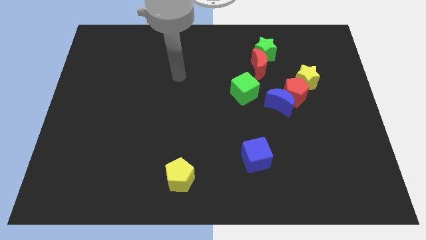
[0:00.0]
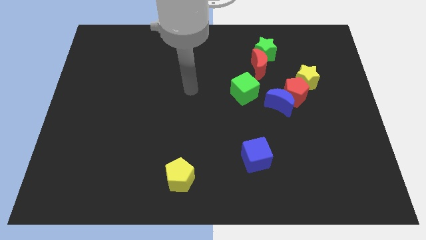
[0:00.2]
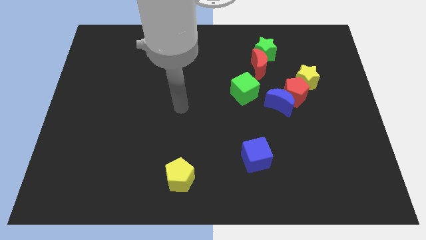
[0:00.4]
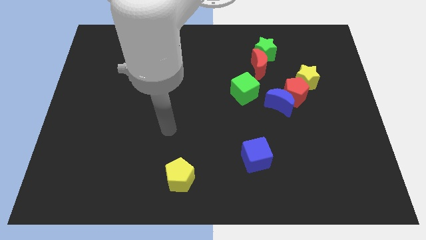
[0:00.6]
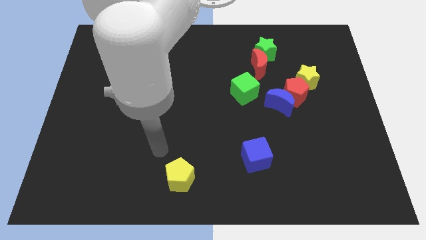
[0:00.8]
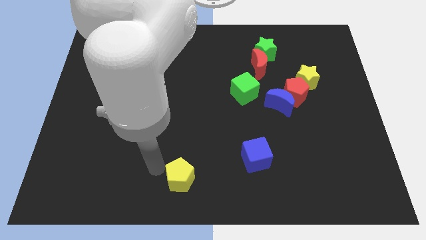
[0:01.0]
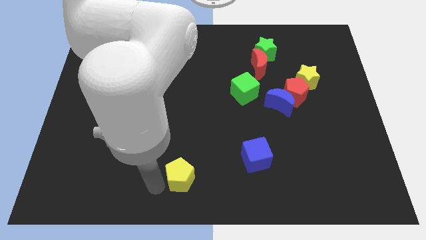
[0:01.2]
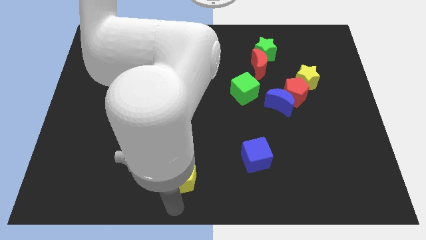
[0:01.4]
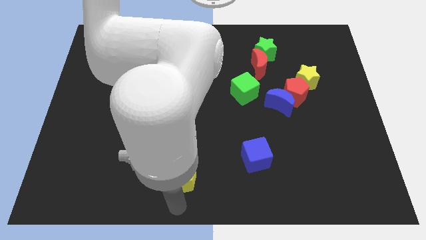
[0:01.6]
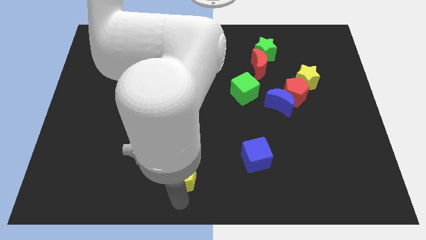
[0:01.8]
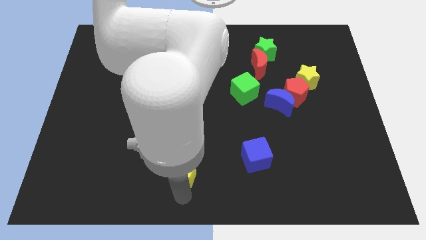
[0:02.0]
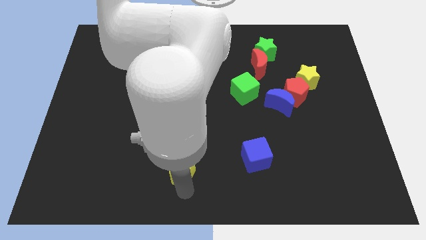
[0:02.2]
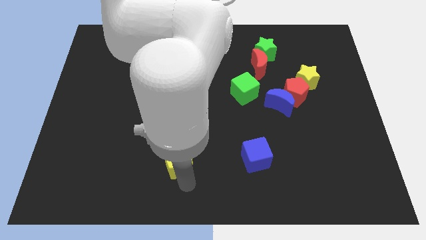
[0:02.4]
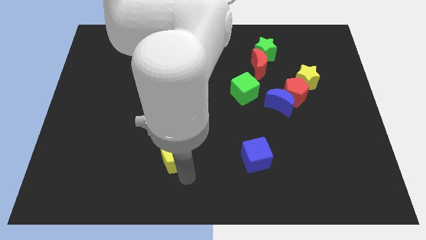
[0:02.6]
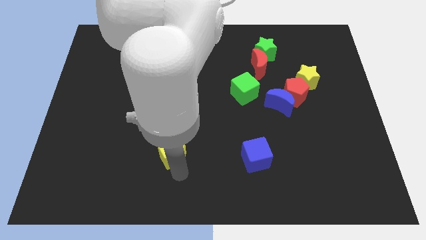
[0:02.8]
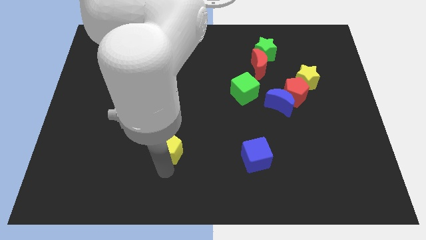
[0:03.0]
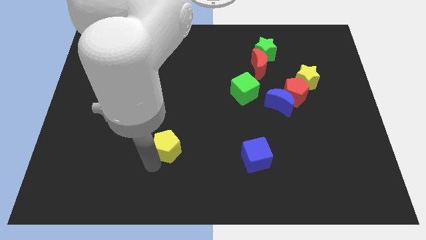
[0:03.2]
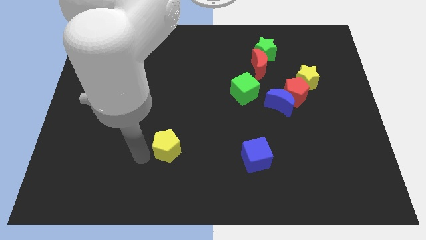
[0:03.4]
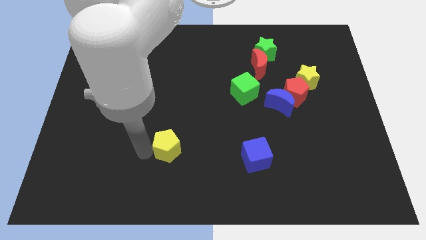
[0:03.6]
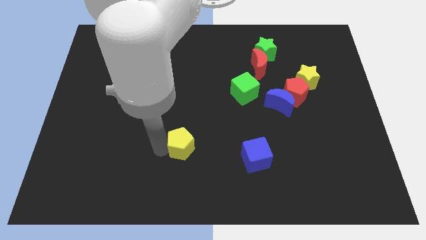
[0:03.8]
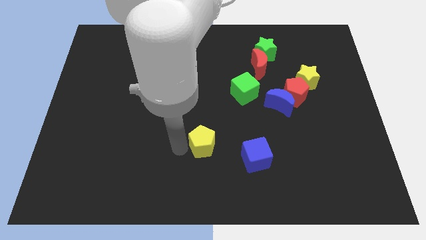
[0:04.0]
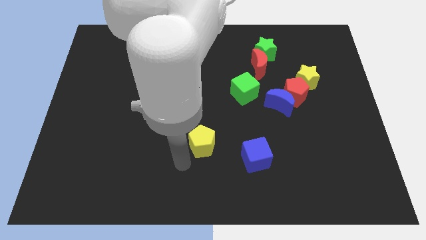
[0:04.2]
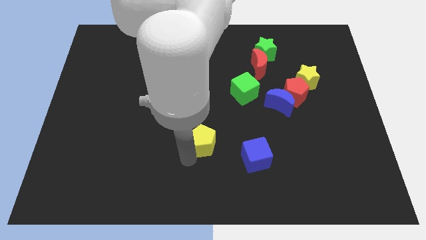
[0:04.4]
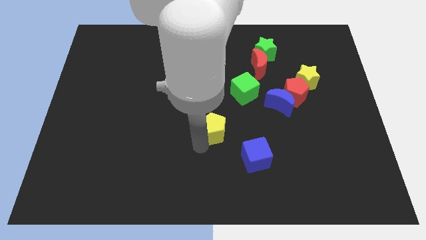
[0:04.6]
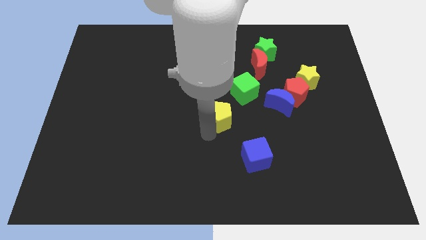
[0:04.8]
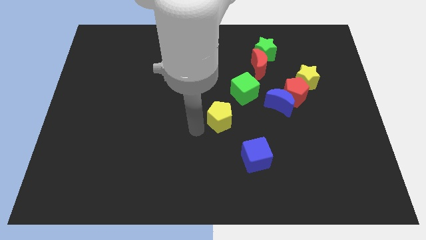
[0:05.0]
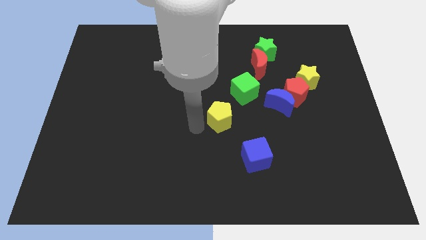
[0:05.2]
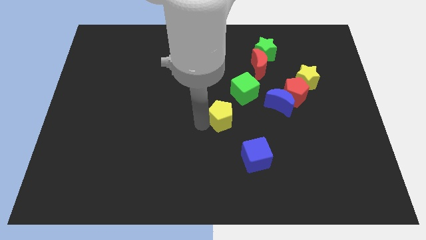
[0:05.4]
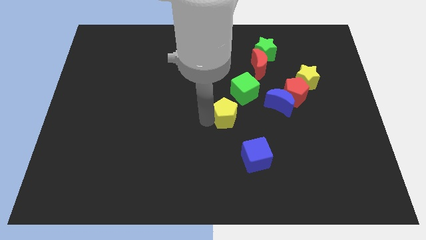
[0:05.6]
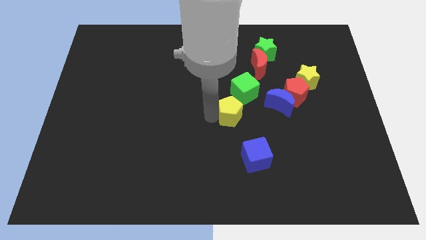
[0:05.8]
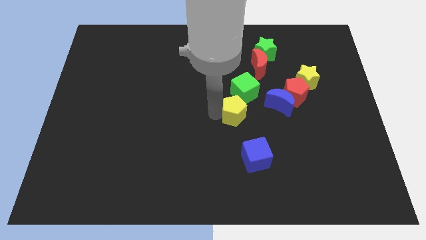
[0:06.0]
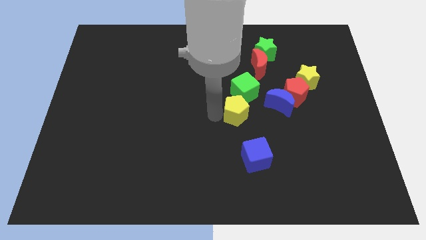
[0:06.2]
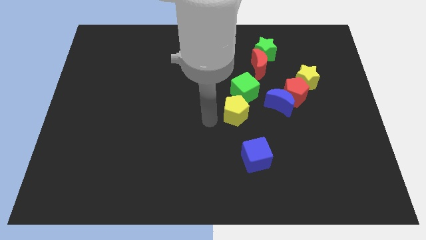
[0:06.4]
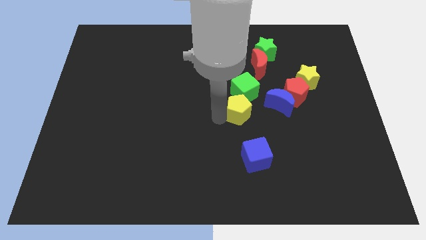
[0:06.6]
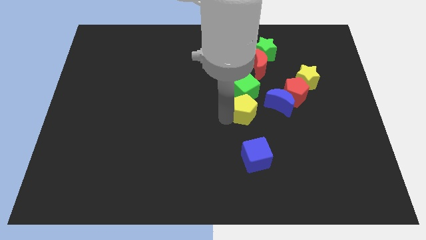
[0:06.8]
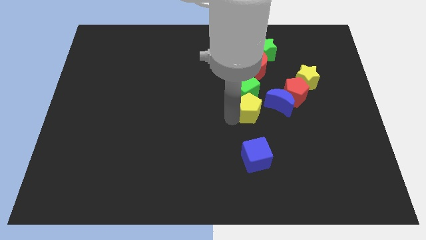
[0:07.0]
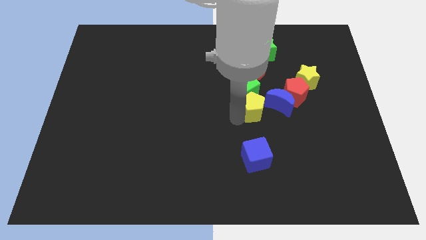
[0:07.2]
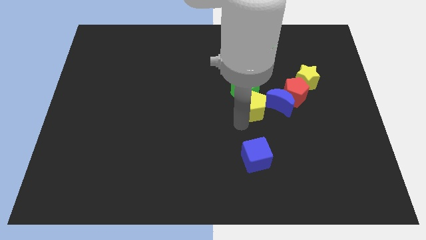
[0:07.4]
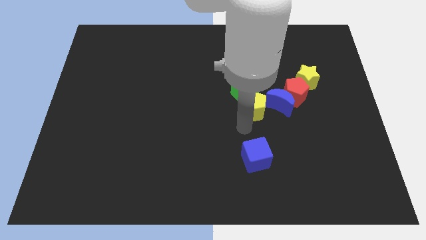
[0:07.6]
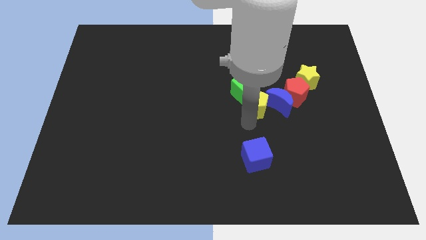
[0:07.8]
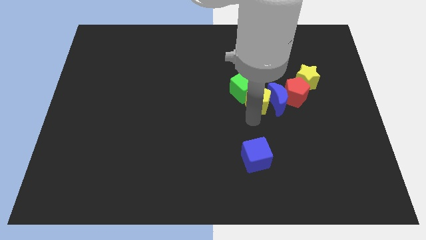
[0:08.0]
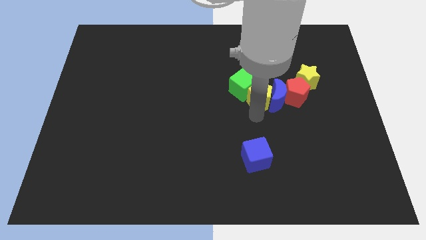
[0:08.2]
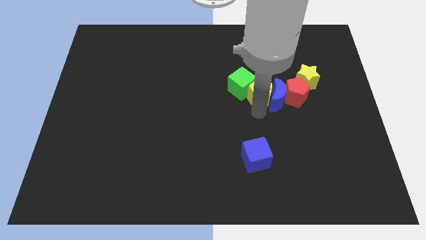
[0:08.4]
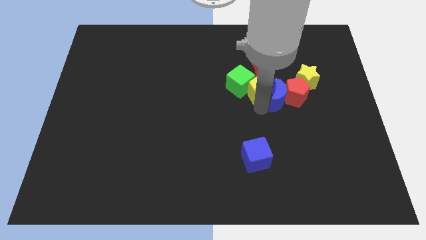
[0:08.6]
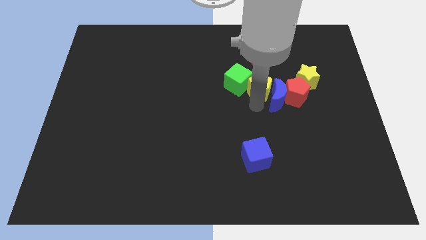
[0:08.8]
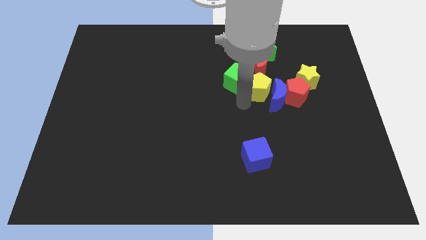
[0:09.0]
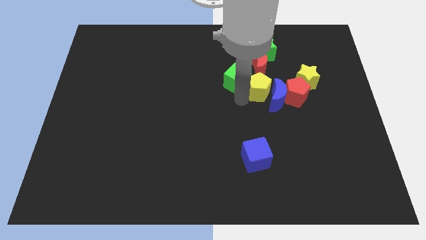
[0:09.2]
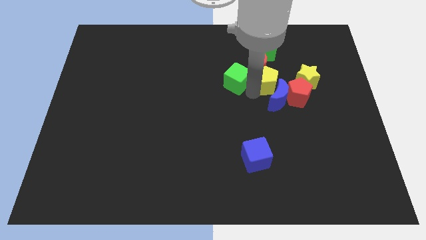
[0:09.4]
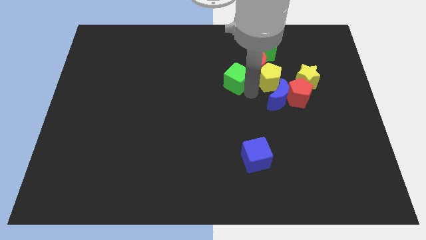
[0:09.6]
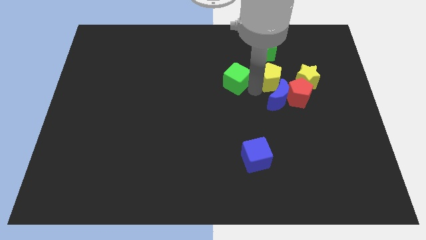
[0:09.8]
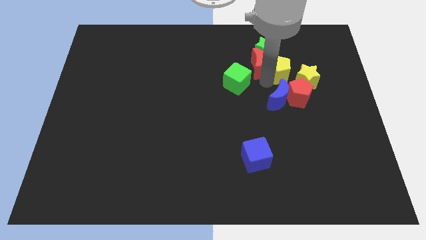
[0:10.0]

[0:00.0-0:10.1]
move the yellow pentagon to the top side of the red pentagon

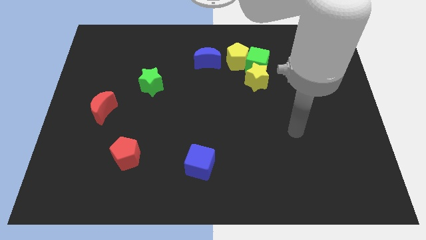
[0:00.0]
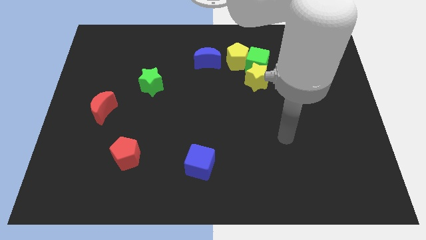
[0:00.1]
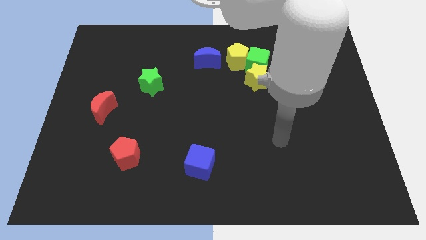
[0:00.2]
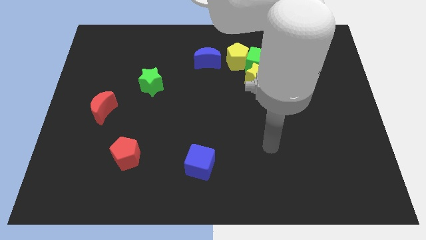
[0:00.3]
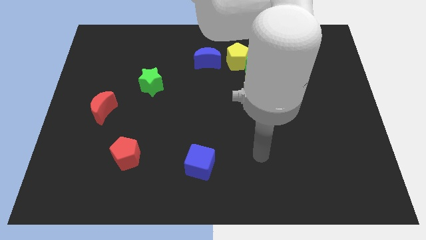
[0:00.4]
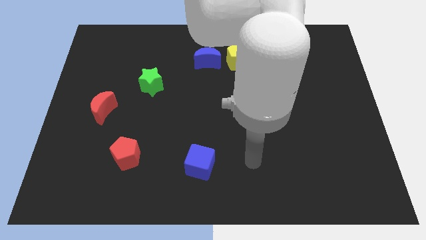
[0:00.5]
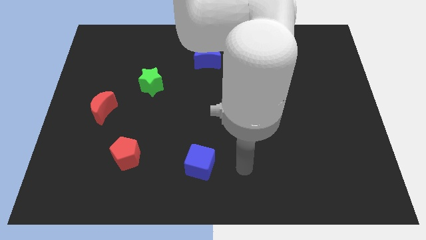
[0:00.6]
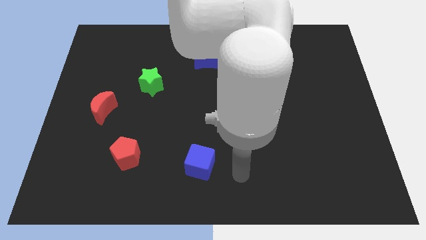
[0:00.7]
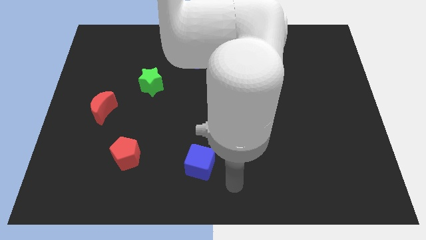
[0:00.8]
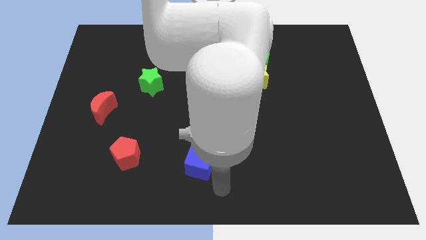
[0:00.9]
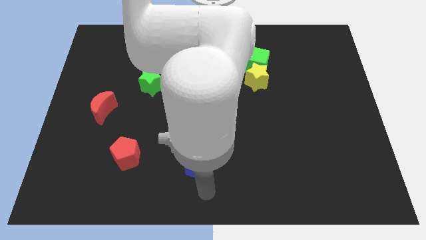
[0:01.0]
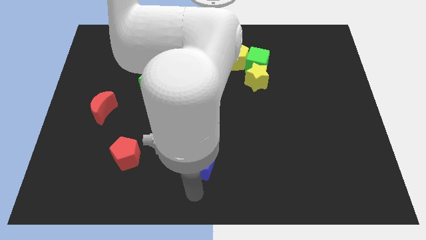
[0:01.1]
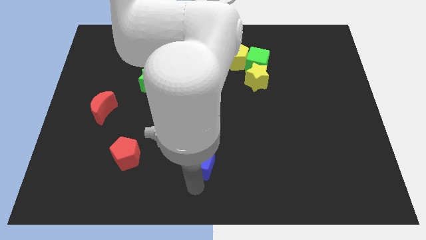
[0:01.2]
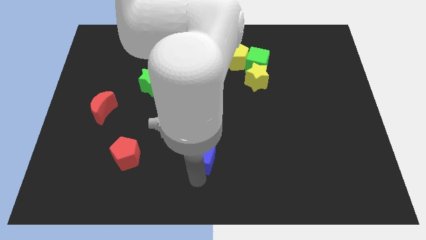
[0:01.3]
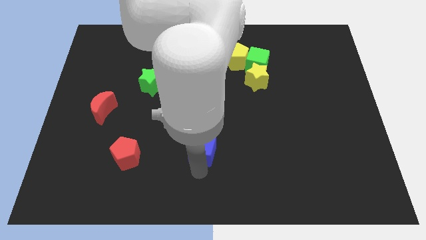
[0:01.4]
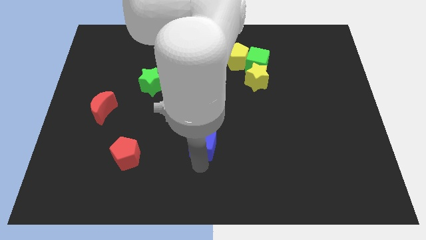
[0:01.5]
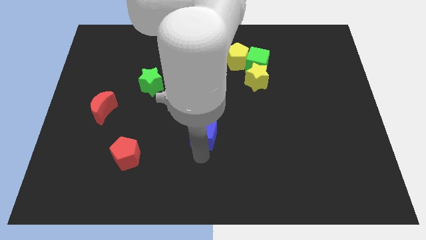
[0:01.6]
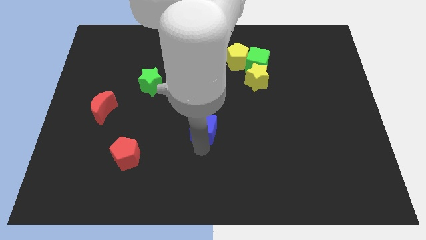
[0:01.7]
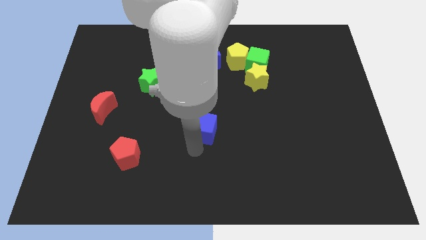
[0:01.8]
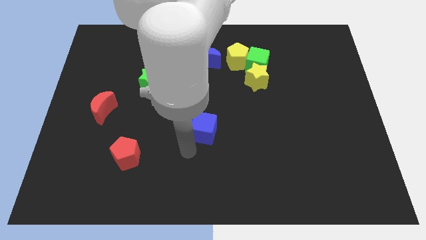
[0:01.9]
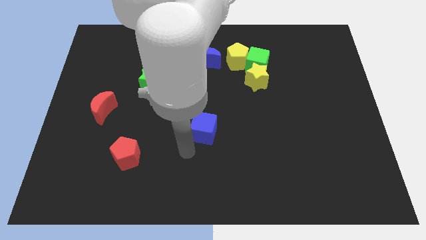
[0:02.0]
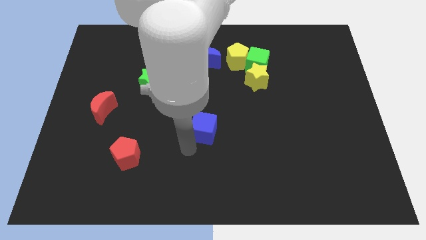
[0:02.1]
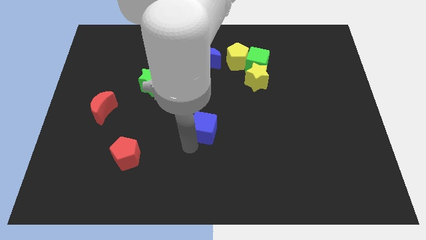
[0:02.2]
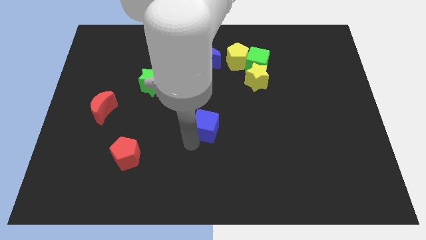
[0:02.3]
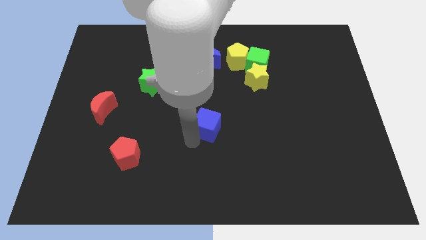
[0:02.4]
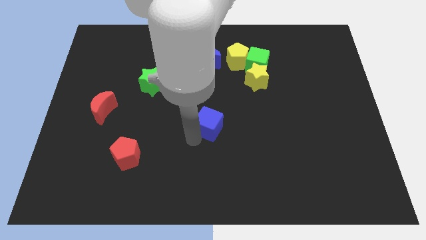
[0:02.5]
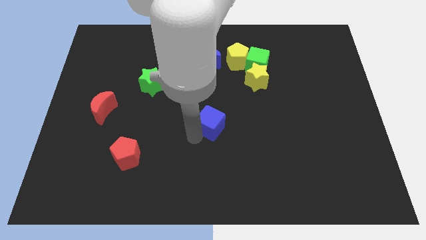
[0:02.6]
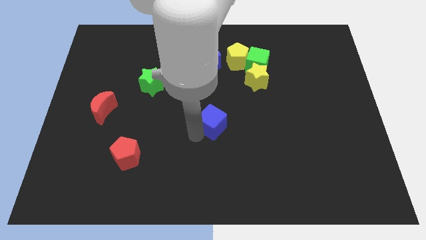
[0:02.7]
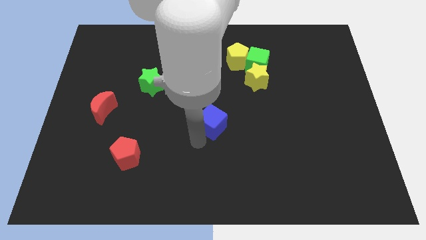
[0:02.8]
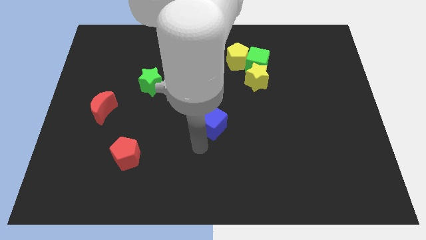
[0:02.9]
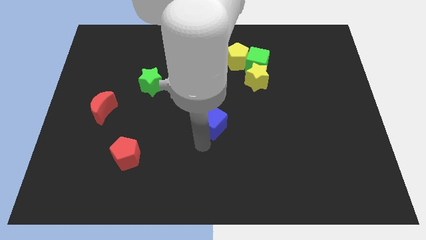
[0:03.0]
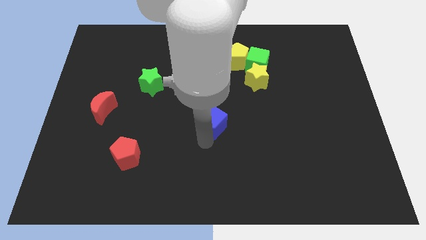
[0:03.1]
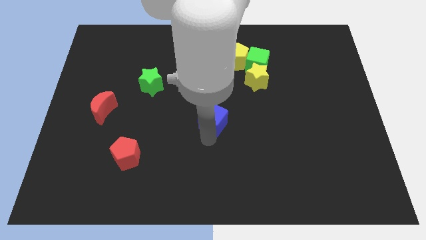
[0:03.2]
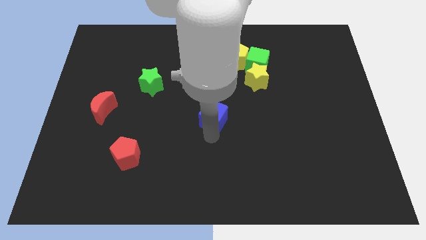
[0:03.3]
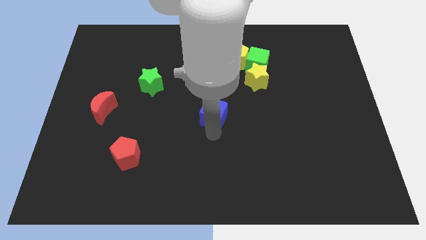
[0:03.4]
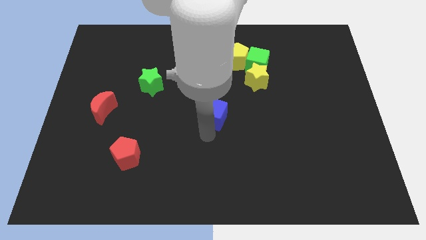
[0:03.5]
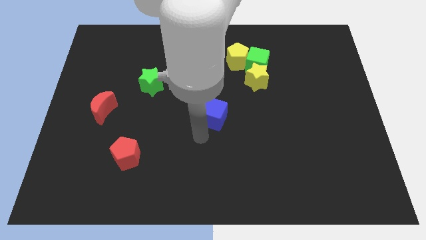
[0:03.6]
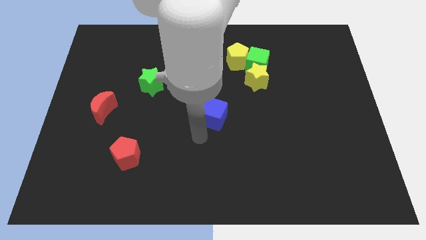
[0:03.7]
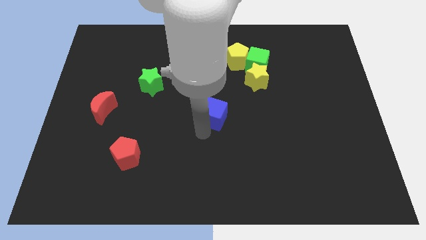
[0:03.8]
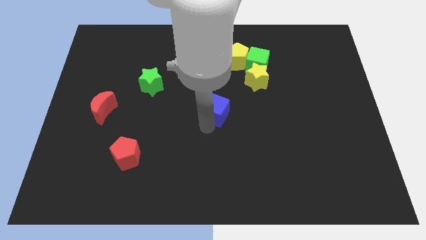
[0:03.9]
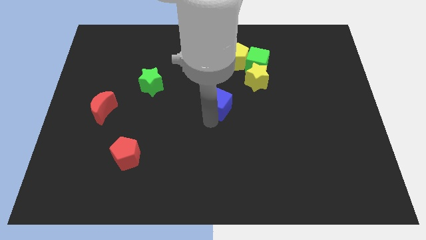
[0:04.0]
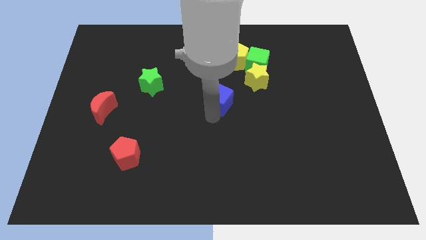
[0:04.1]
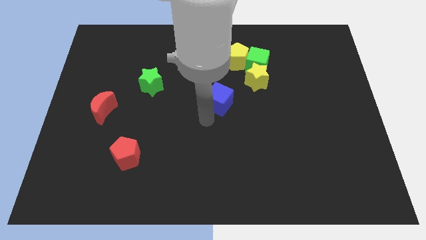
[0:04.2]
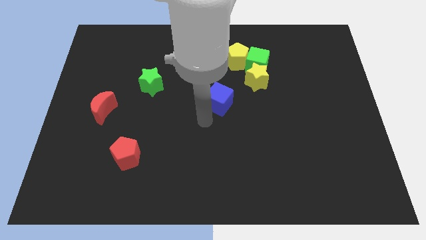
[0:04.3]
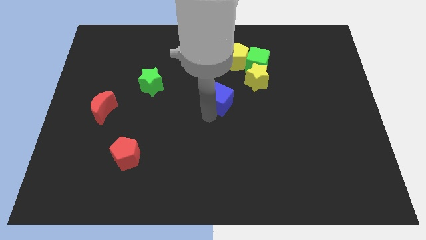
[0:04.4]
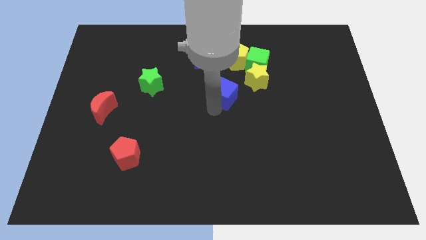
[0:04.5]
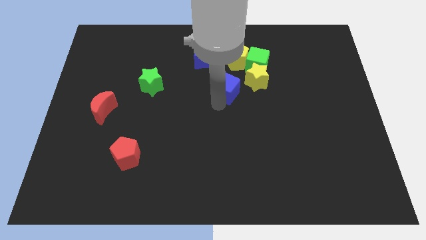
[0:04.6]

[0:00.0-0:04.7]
put the blue cube to the bottom left of the green cube
